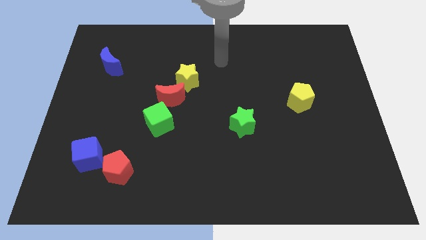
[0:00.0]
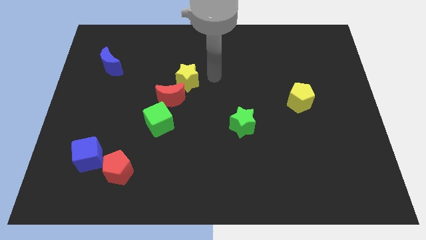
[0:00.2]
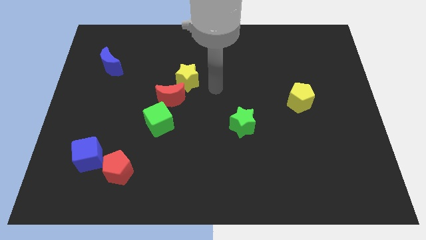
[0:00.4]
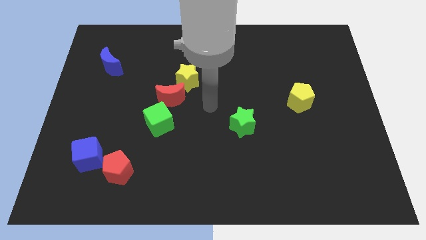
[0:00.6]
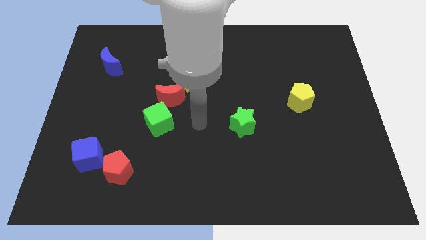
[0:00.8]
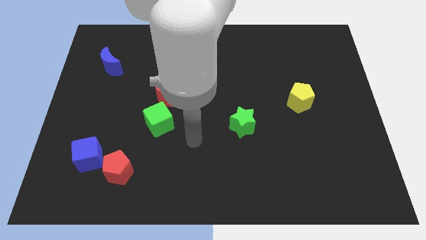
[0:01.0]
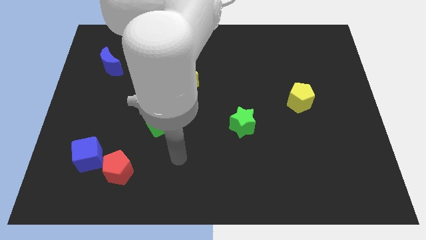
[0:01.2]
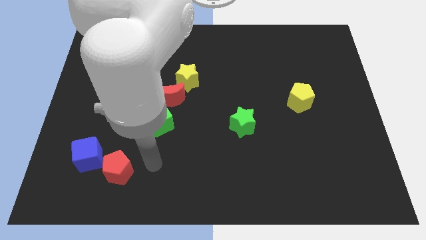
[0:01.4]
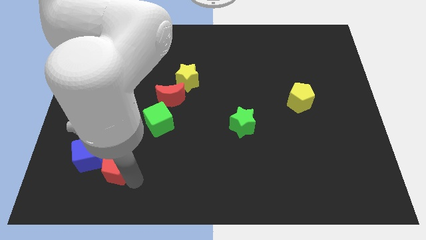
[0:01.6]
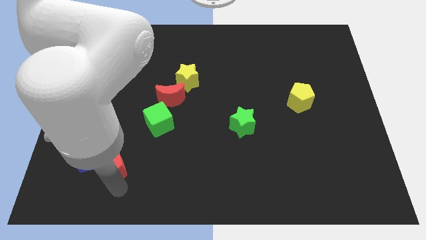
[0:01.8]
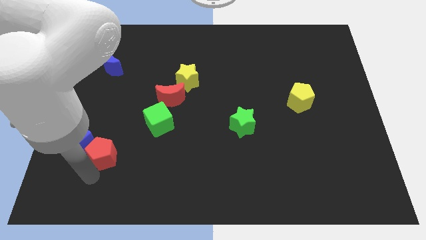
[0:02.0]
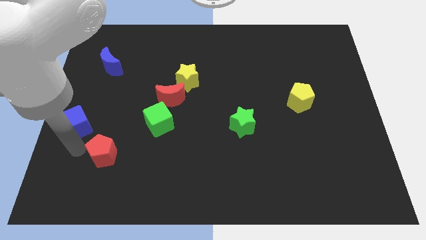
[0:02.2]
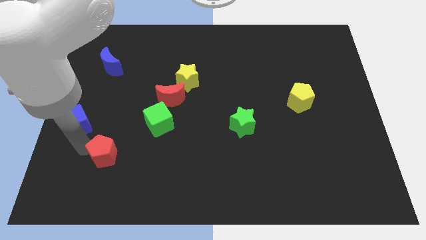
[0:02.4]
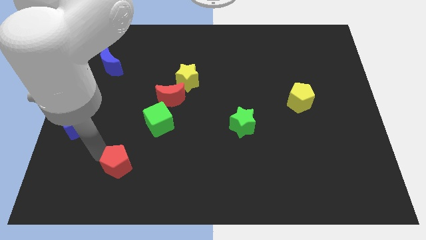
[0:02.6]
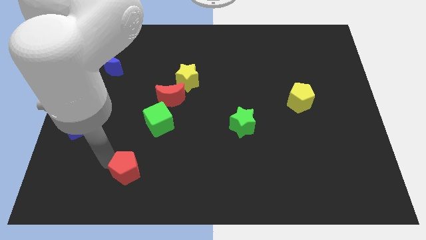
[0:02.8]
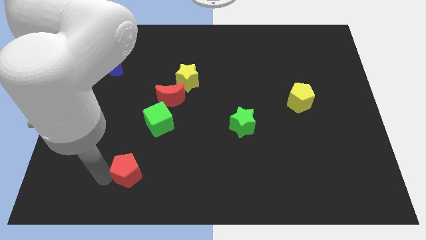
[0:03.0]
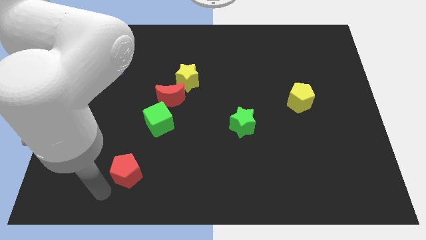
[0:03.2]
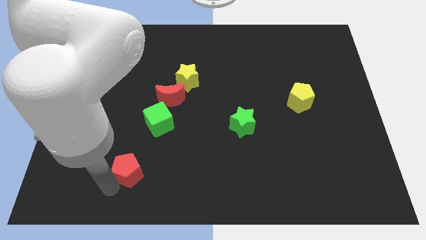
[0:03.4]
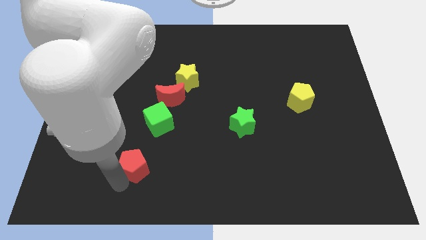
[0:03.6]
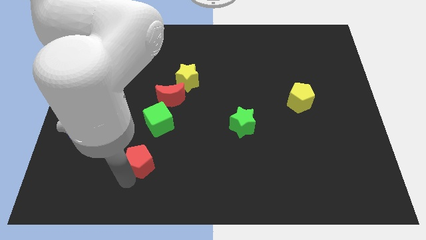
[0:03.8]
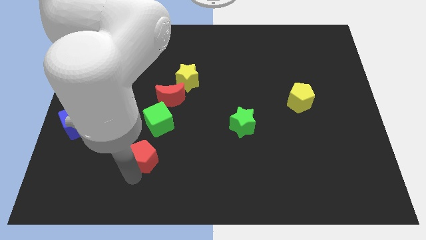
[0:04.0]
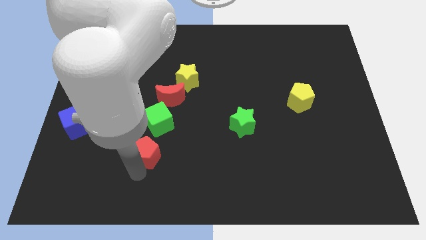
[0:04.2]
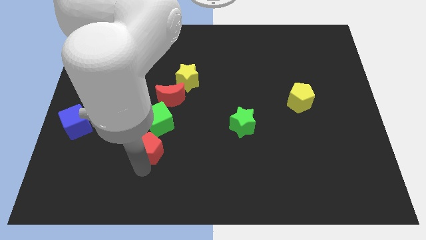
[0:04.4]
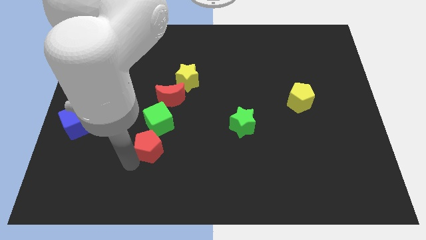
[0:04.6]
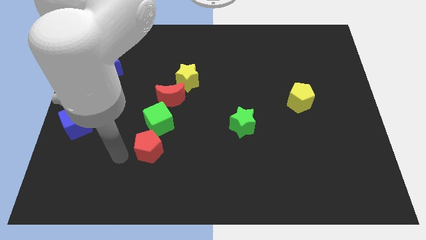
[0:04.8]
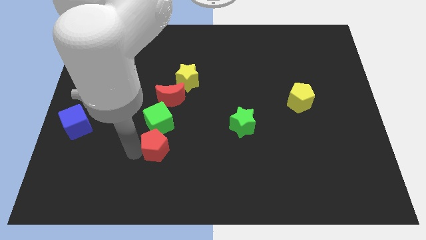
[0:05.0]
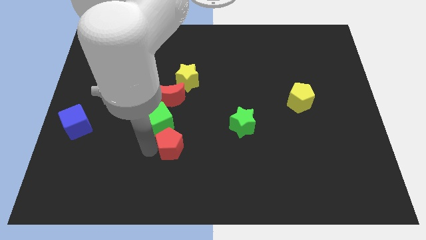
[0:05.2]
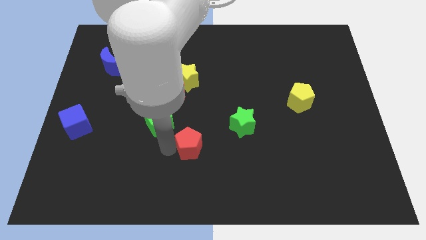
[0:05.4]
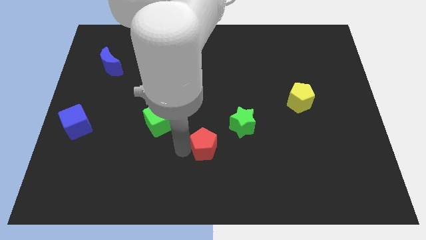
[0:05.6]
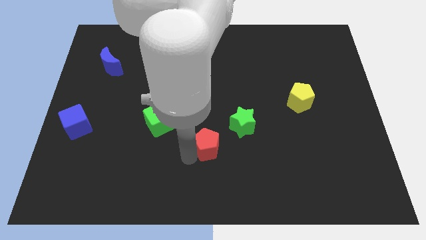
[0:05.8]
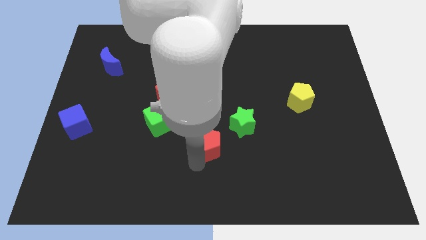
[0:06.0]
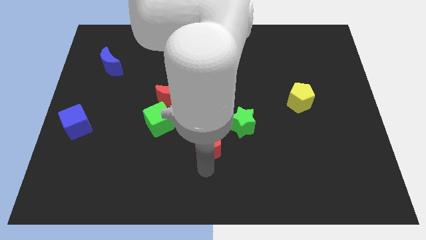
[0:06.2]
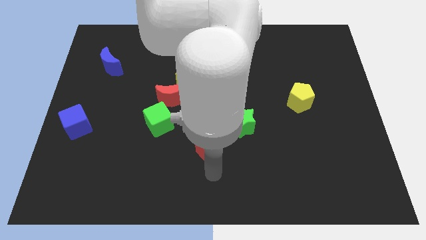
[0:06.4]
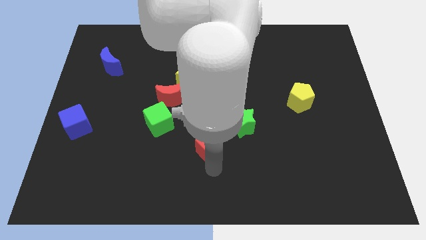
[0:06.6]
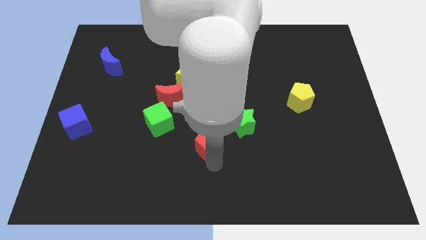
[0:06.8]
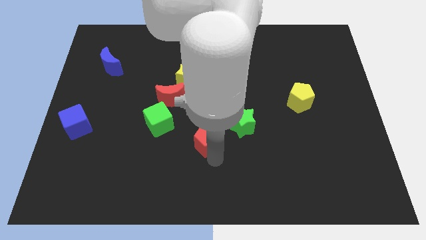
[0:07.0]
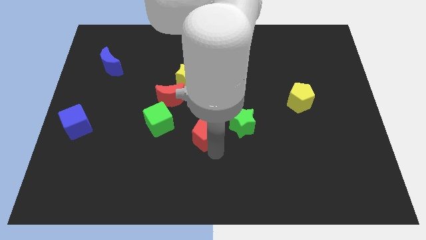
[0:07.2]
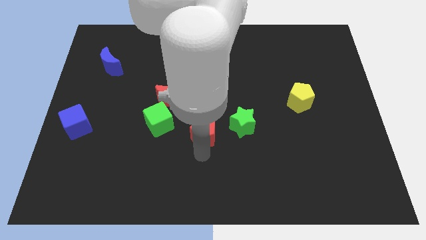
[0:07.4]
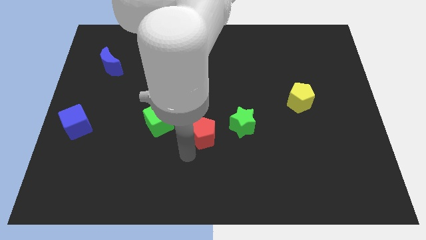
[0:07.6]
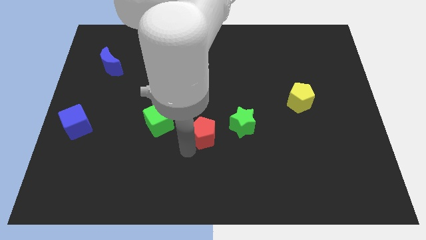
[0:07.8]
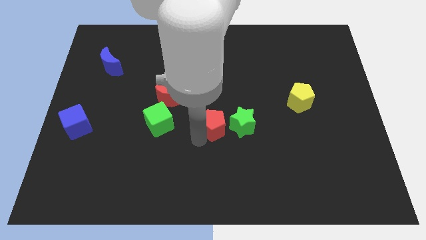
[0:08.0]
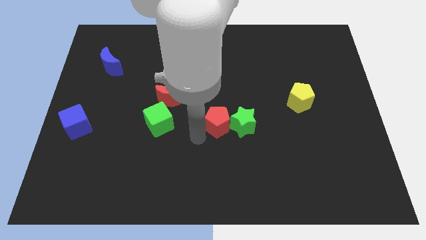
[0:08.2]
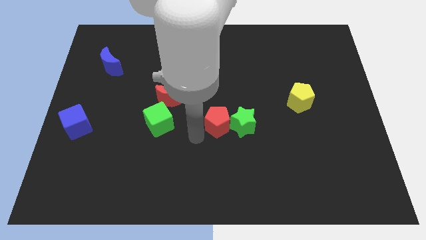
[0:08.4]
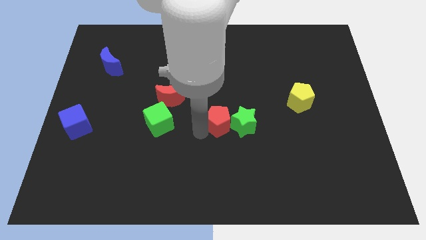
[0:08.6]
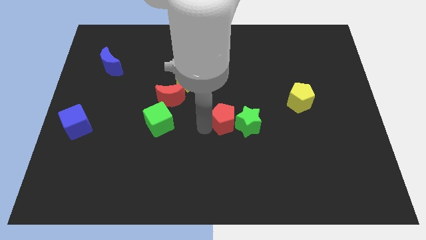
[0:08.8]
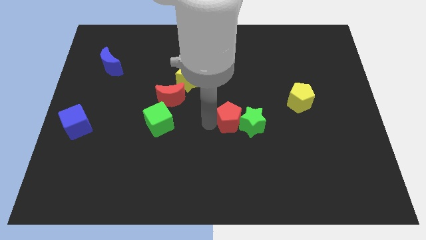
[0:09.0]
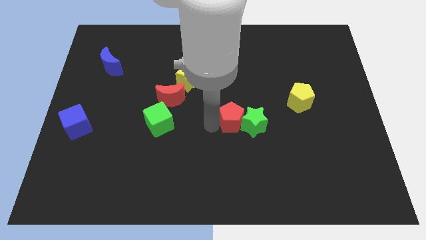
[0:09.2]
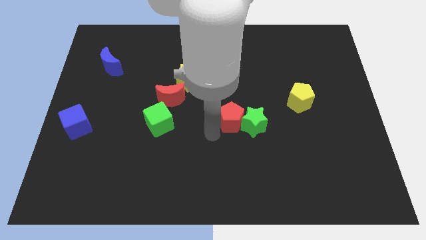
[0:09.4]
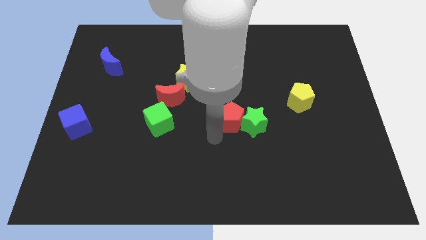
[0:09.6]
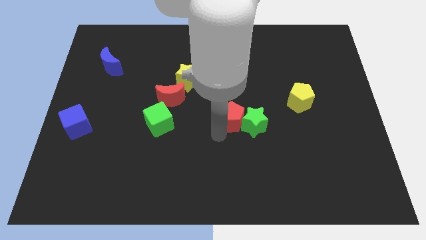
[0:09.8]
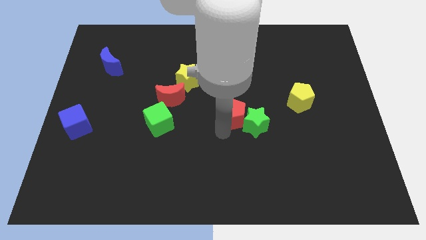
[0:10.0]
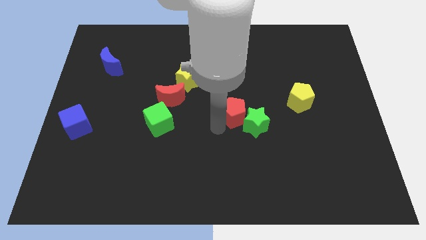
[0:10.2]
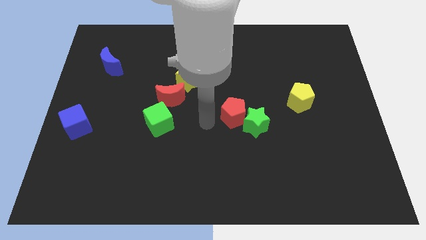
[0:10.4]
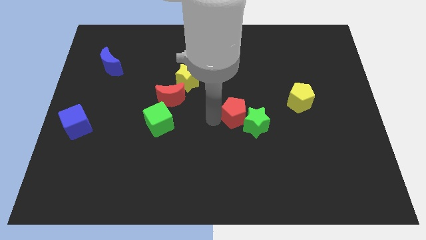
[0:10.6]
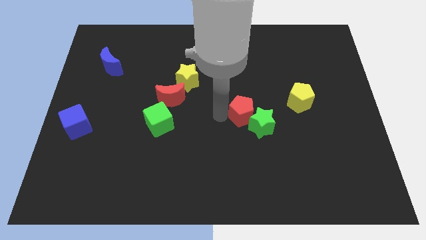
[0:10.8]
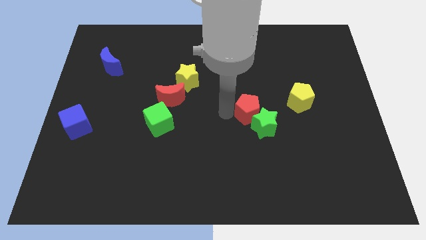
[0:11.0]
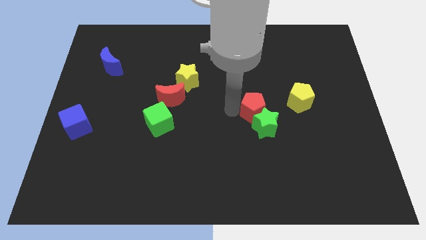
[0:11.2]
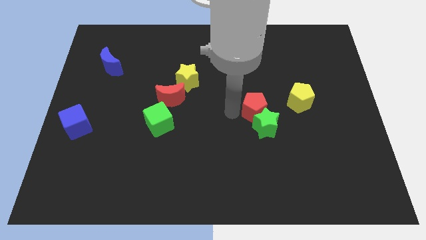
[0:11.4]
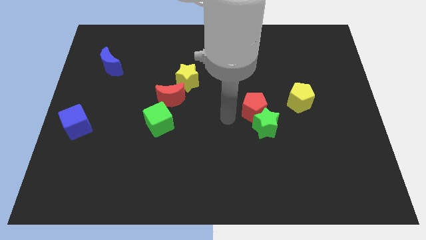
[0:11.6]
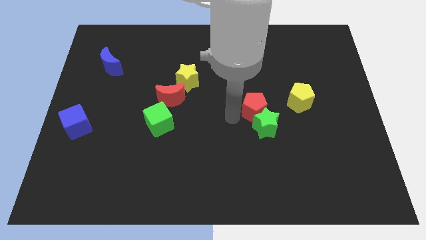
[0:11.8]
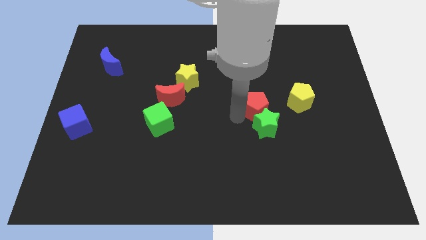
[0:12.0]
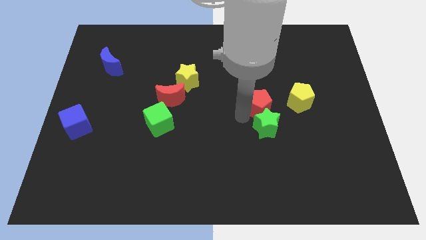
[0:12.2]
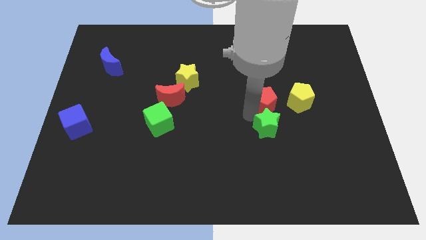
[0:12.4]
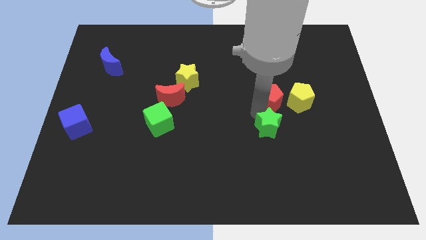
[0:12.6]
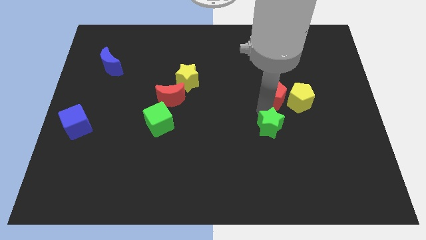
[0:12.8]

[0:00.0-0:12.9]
put the red pentagon towards the yellow pentagon
